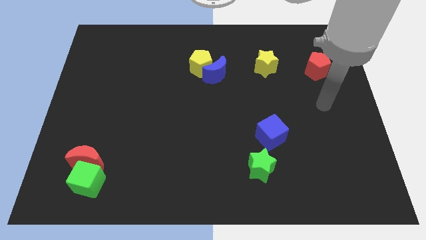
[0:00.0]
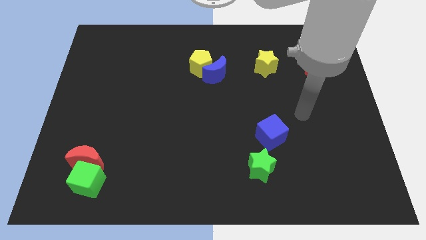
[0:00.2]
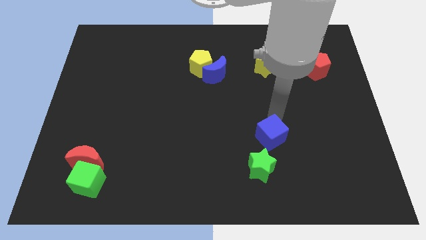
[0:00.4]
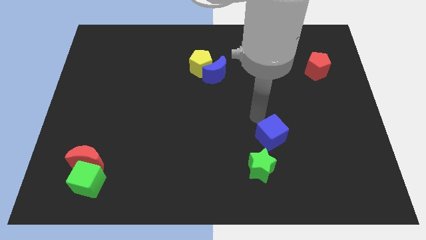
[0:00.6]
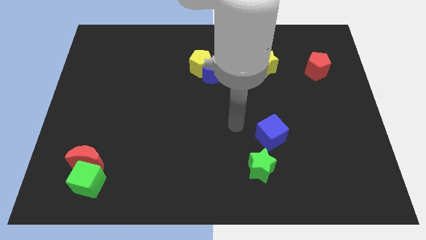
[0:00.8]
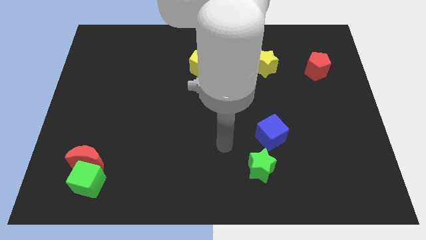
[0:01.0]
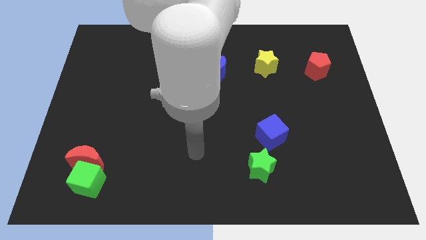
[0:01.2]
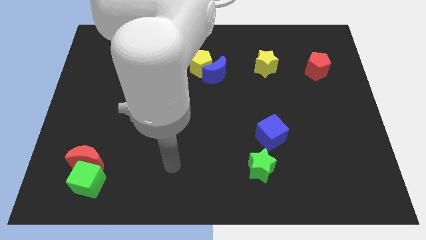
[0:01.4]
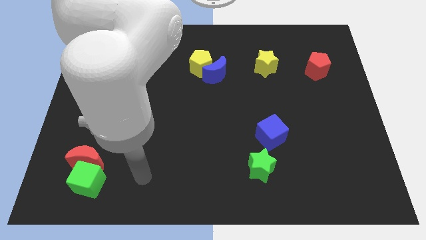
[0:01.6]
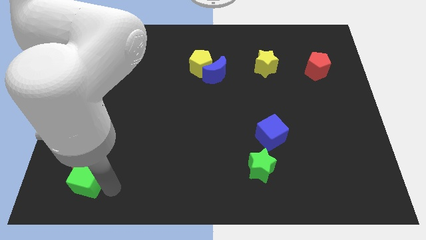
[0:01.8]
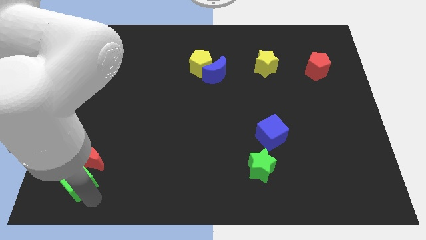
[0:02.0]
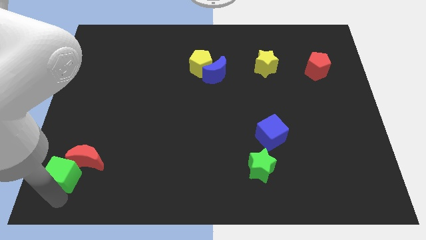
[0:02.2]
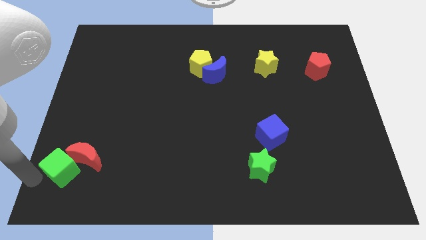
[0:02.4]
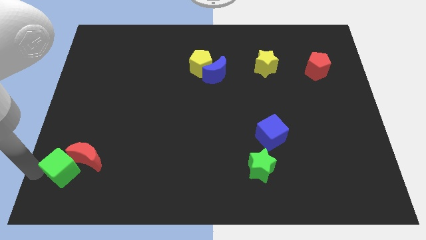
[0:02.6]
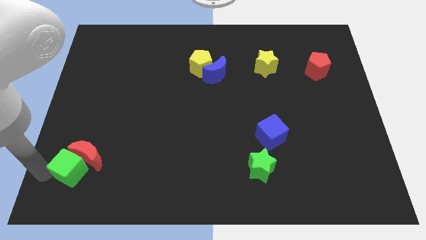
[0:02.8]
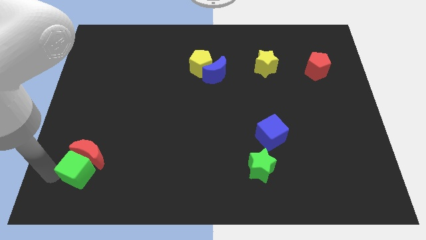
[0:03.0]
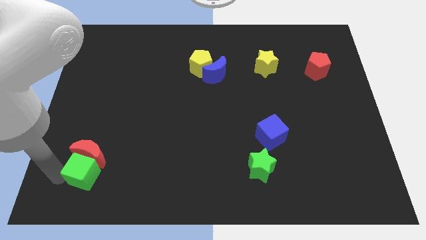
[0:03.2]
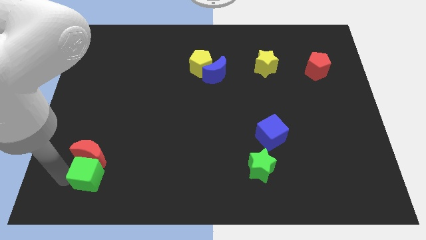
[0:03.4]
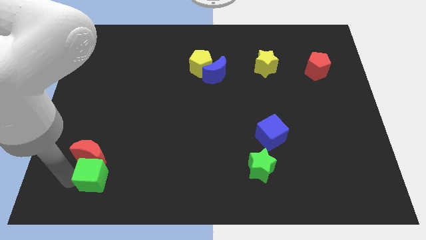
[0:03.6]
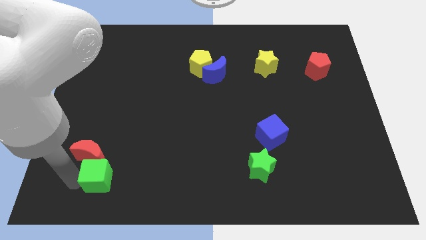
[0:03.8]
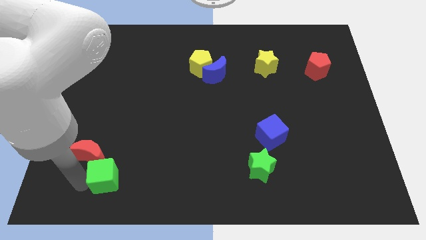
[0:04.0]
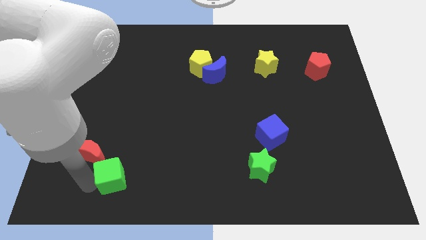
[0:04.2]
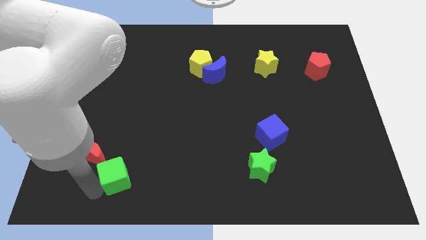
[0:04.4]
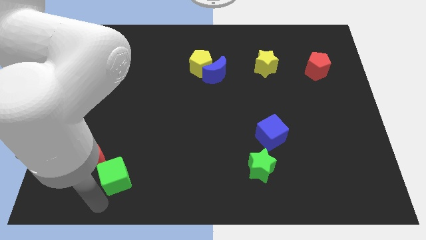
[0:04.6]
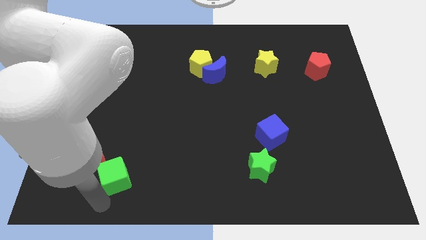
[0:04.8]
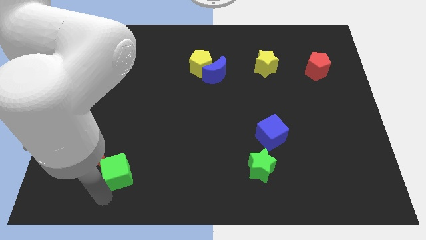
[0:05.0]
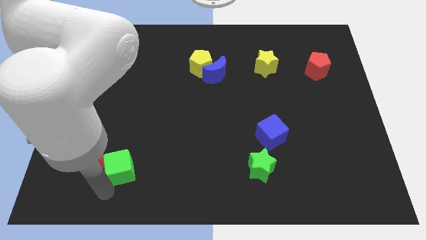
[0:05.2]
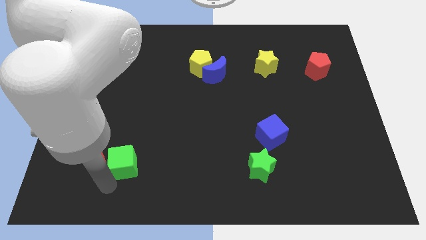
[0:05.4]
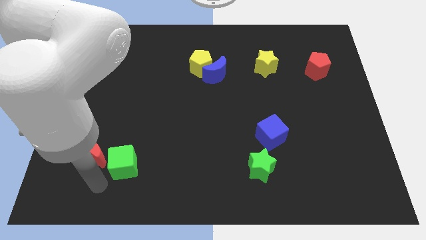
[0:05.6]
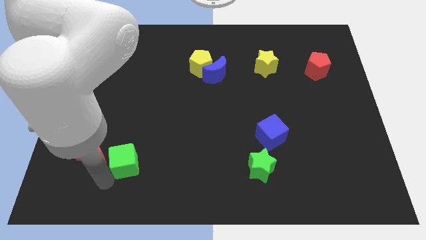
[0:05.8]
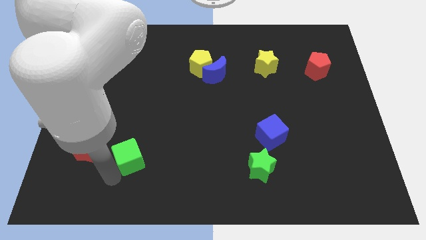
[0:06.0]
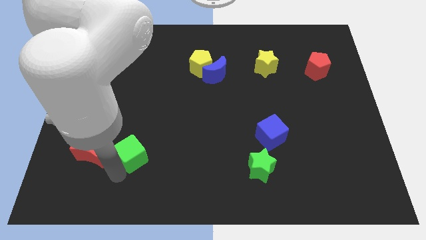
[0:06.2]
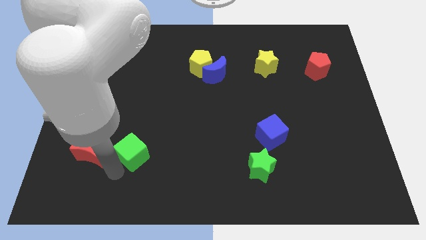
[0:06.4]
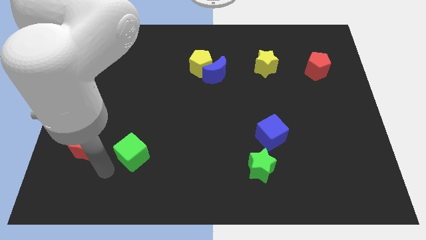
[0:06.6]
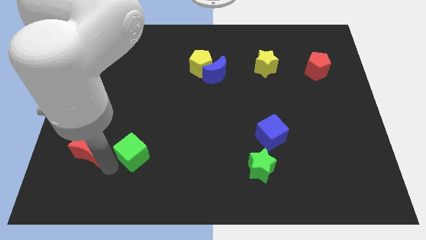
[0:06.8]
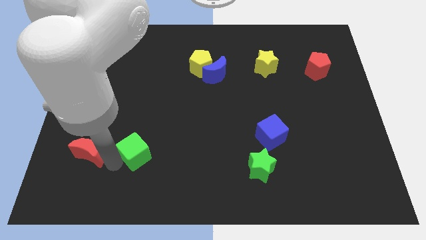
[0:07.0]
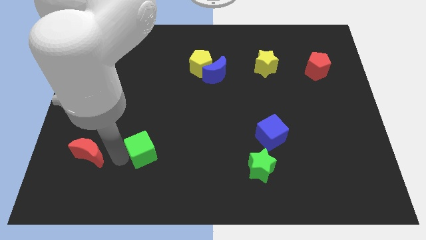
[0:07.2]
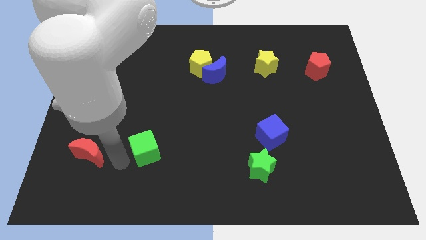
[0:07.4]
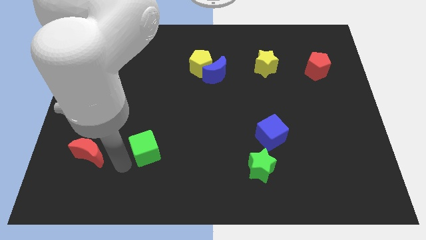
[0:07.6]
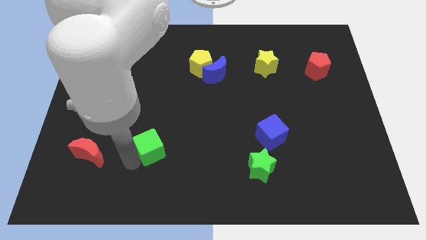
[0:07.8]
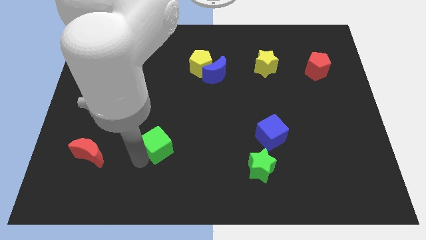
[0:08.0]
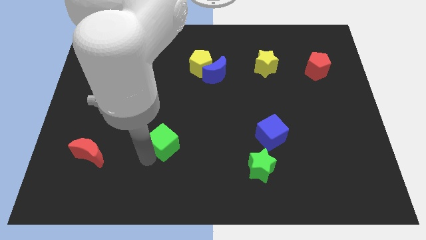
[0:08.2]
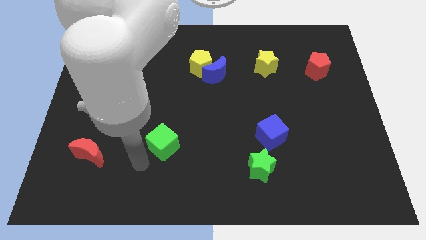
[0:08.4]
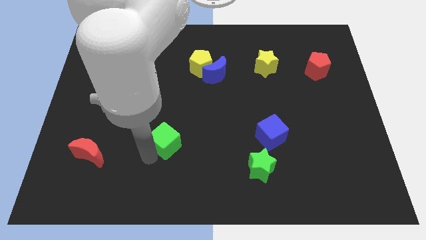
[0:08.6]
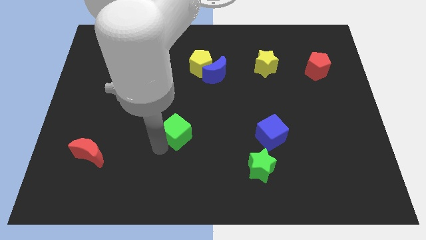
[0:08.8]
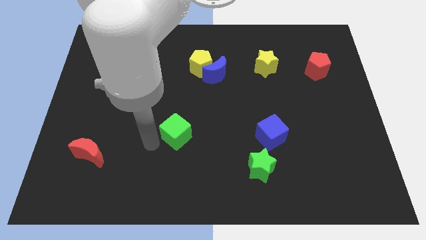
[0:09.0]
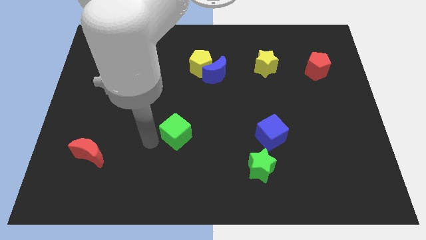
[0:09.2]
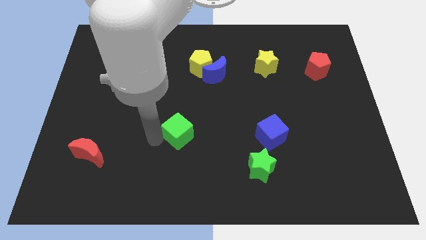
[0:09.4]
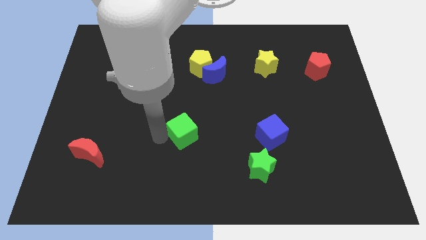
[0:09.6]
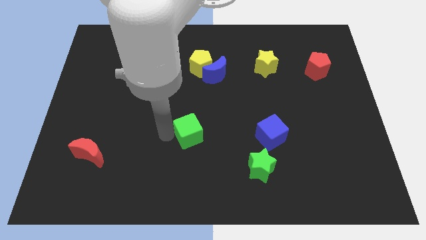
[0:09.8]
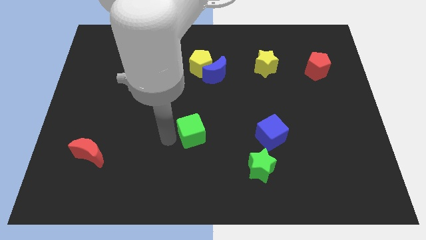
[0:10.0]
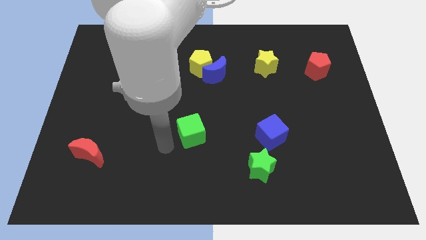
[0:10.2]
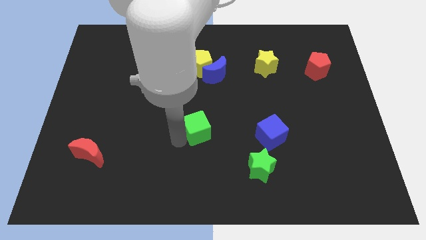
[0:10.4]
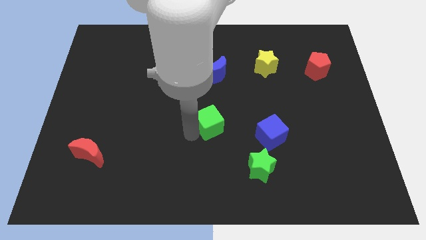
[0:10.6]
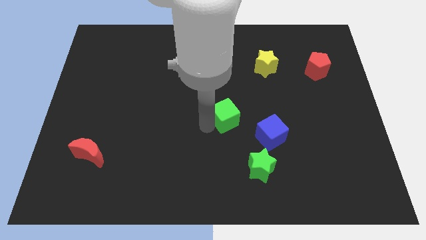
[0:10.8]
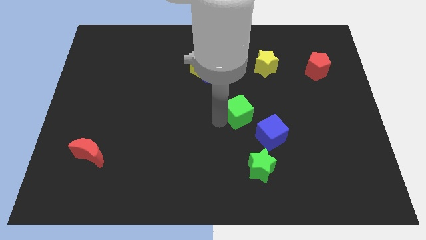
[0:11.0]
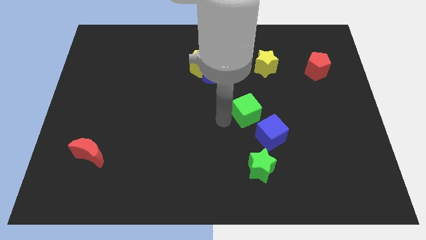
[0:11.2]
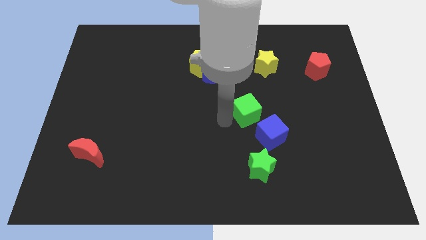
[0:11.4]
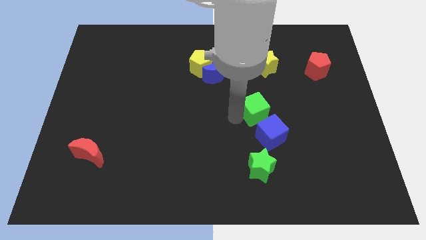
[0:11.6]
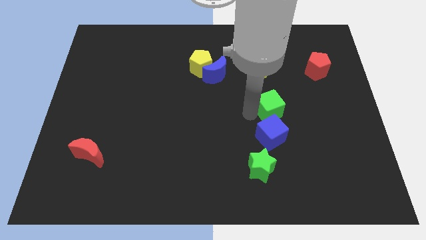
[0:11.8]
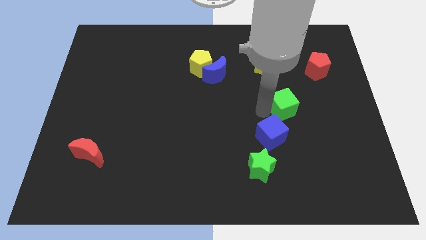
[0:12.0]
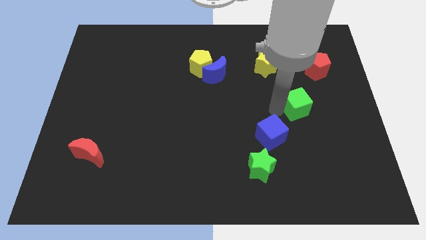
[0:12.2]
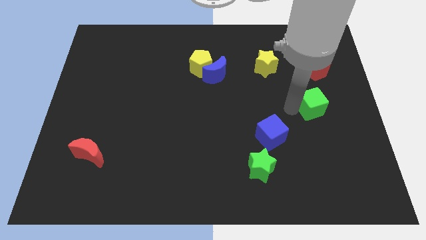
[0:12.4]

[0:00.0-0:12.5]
push the green cube below the red pentagon

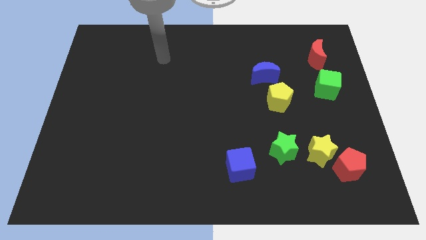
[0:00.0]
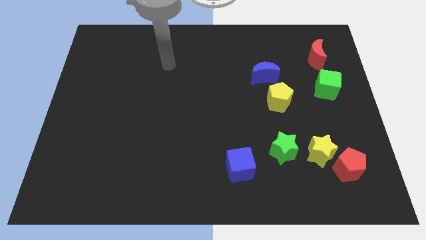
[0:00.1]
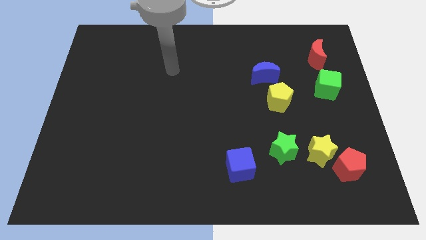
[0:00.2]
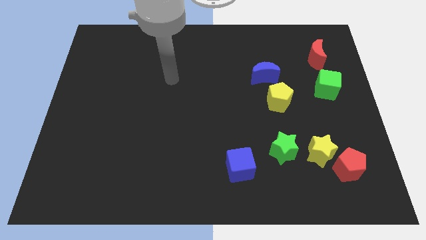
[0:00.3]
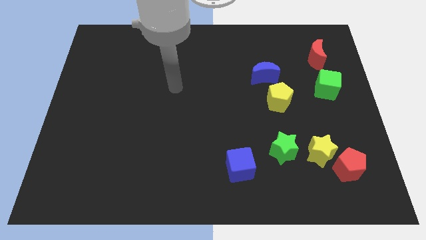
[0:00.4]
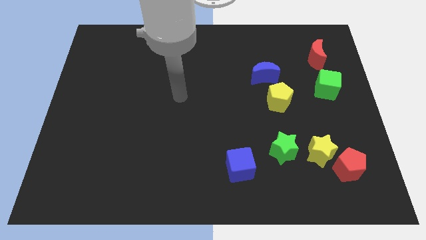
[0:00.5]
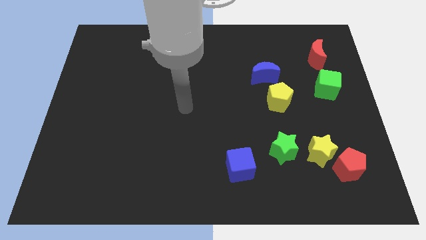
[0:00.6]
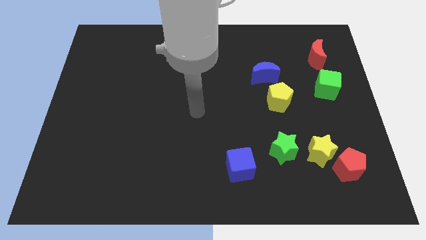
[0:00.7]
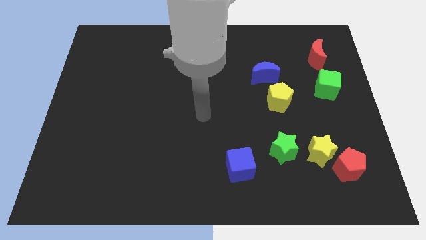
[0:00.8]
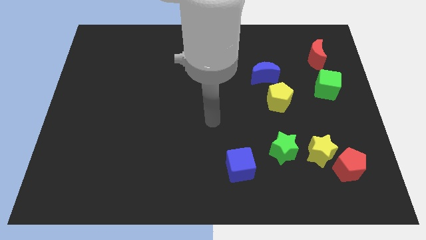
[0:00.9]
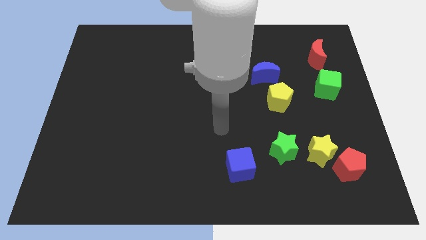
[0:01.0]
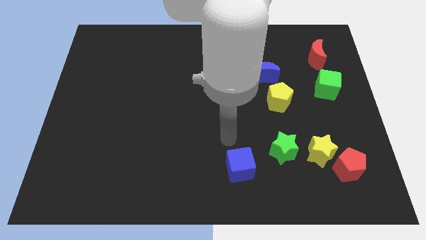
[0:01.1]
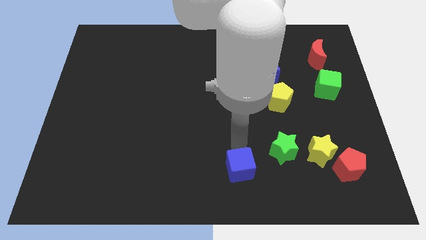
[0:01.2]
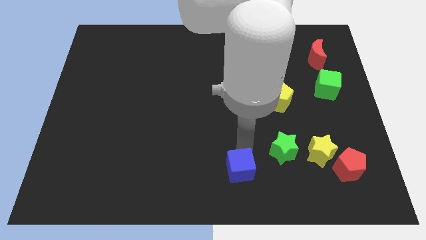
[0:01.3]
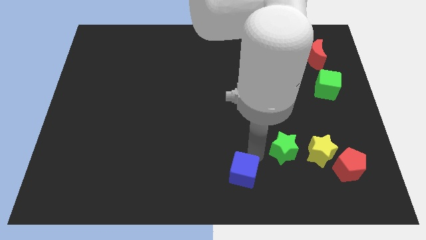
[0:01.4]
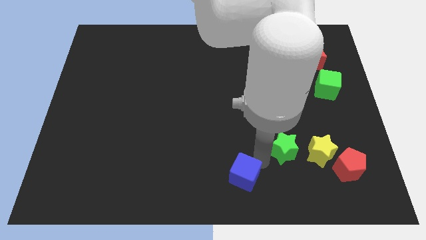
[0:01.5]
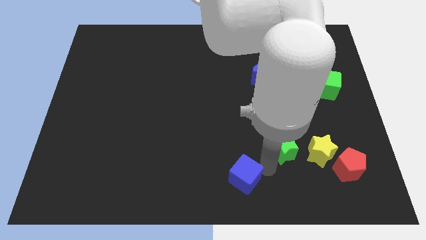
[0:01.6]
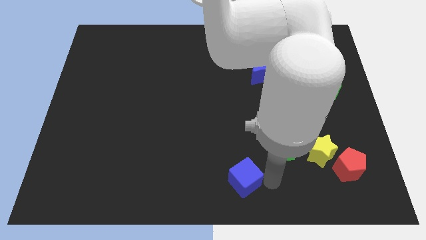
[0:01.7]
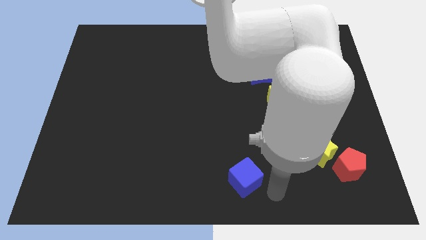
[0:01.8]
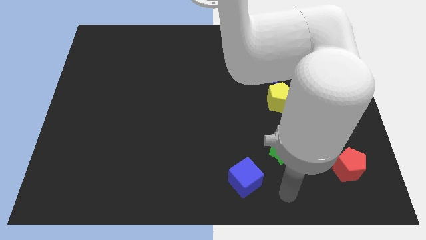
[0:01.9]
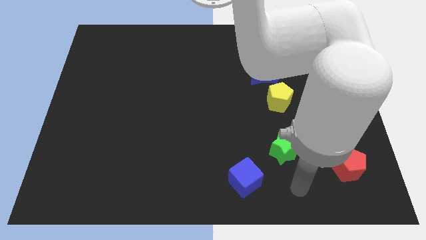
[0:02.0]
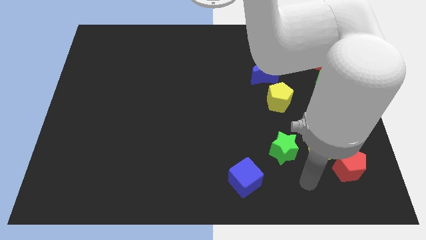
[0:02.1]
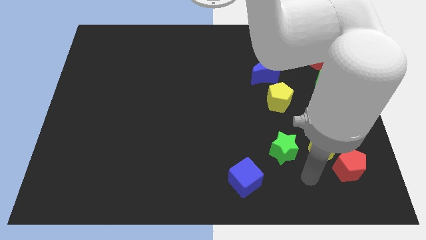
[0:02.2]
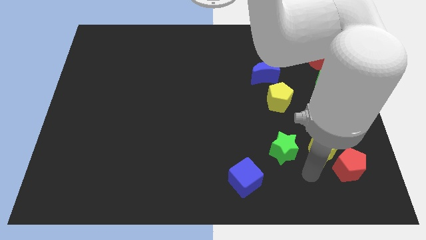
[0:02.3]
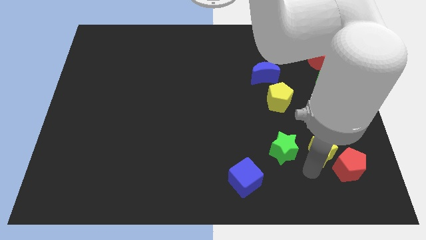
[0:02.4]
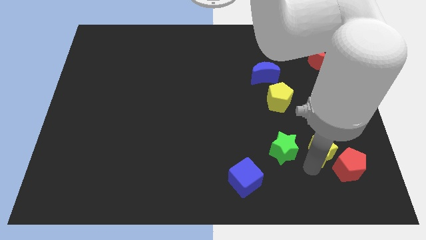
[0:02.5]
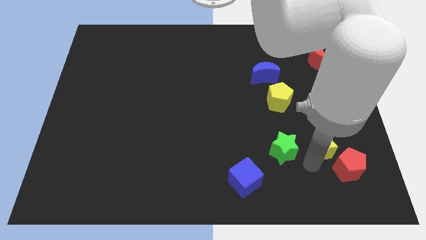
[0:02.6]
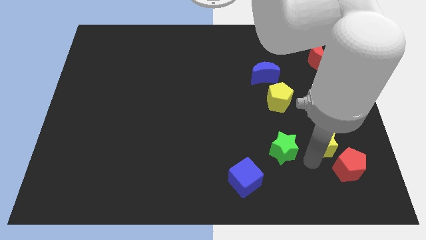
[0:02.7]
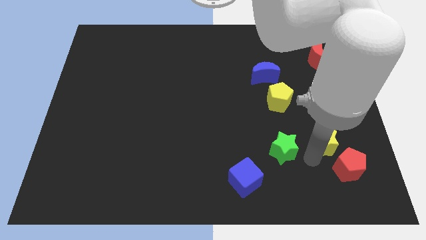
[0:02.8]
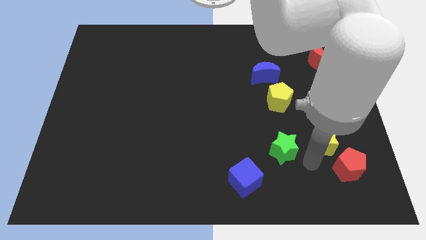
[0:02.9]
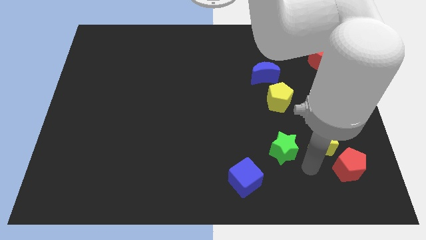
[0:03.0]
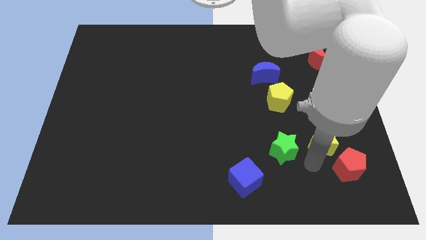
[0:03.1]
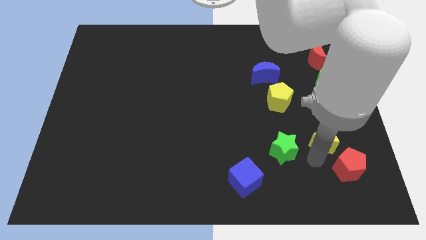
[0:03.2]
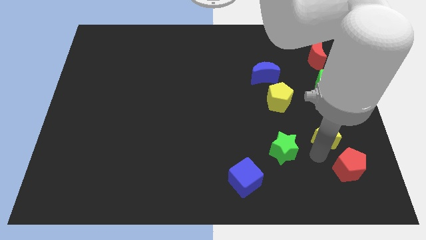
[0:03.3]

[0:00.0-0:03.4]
move the yellow star to the bottom of the green cube
